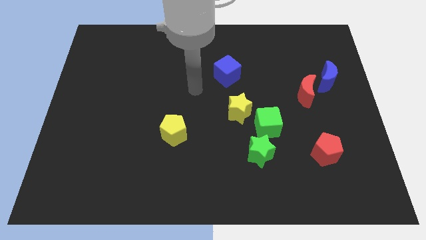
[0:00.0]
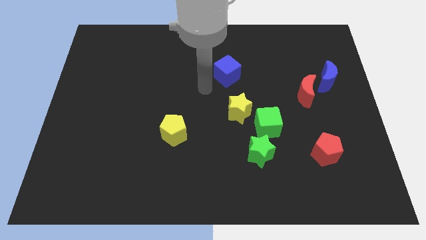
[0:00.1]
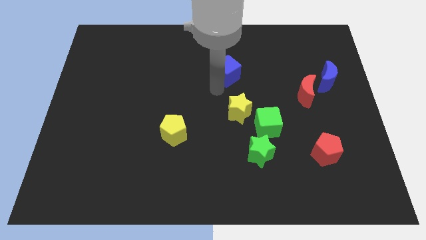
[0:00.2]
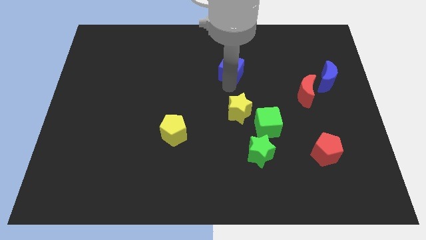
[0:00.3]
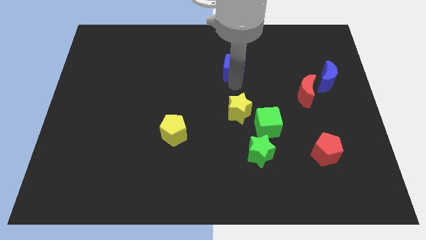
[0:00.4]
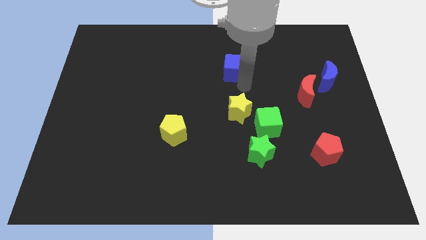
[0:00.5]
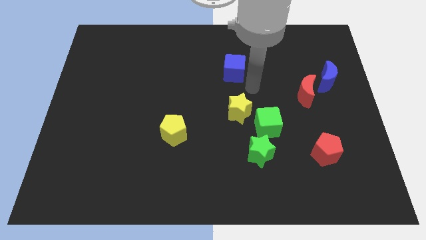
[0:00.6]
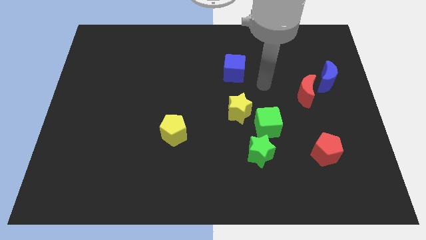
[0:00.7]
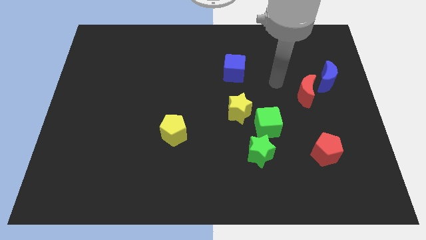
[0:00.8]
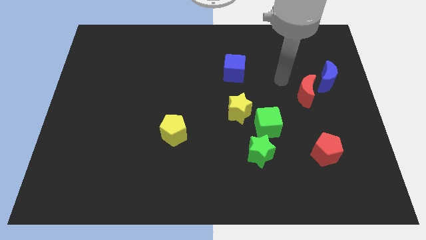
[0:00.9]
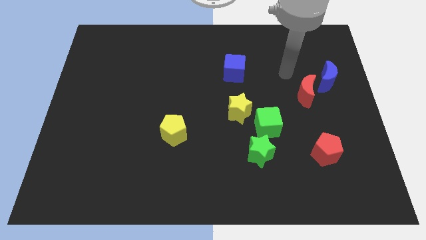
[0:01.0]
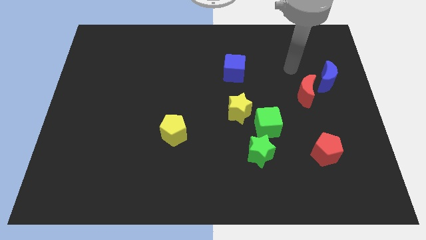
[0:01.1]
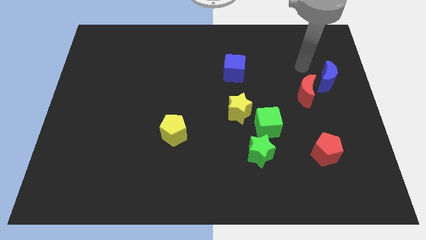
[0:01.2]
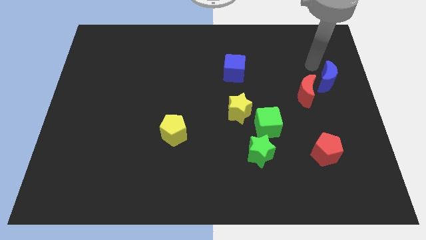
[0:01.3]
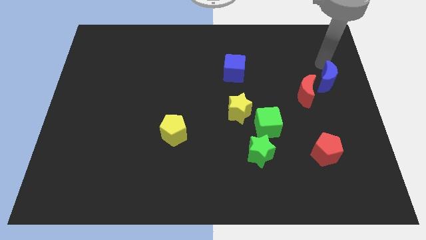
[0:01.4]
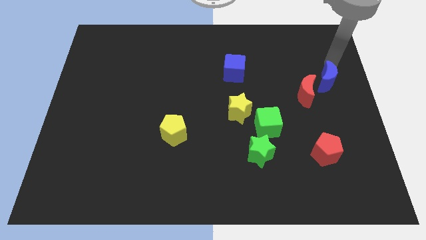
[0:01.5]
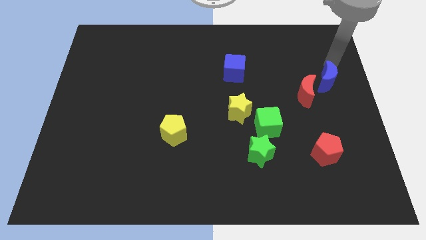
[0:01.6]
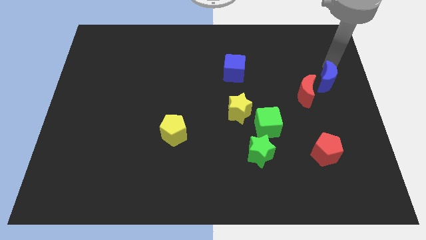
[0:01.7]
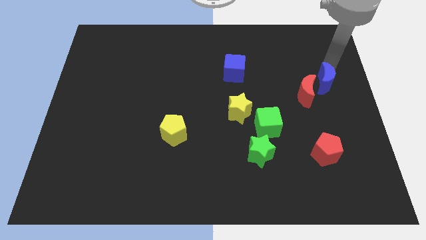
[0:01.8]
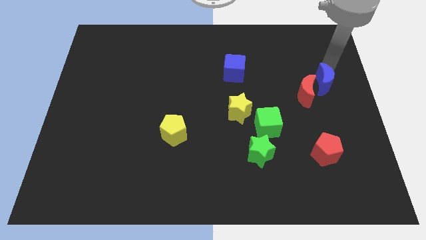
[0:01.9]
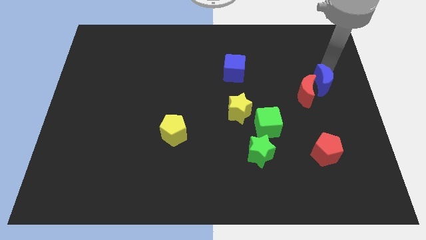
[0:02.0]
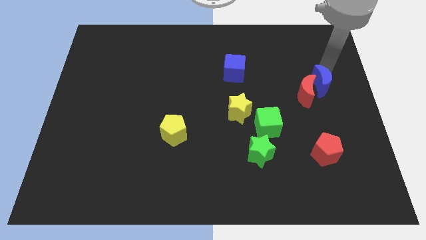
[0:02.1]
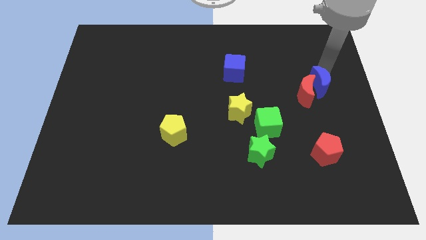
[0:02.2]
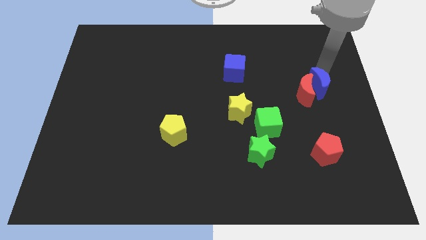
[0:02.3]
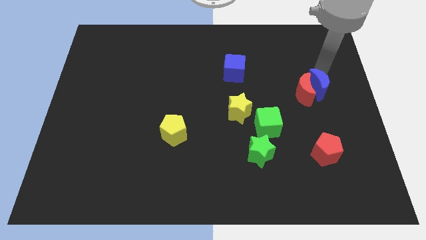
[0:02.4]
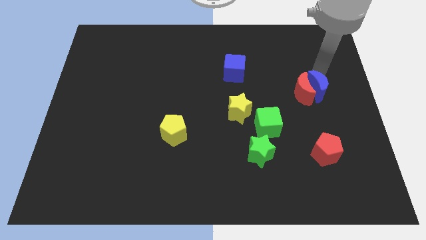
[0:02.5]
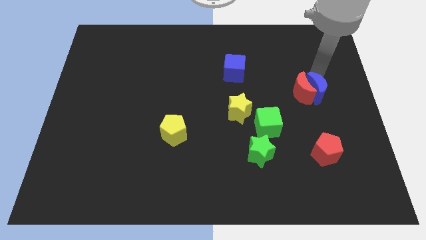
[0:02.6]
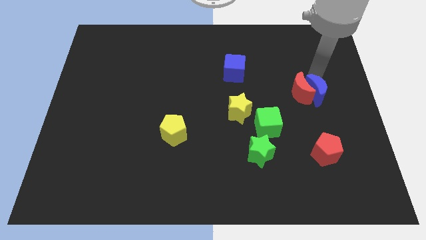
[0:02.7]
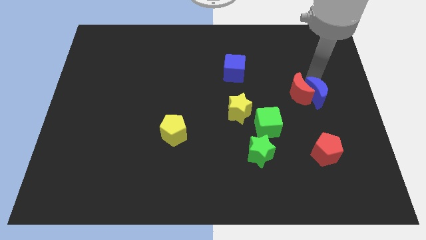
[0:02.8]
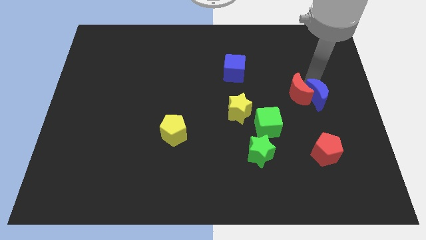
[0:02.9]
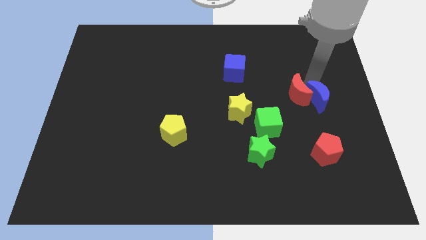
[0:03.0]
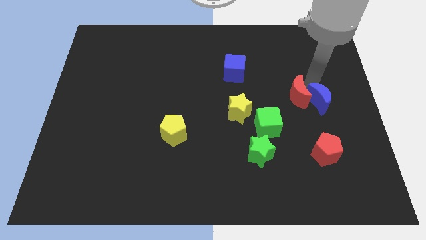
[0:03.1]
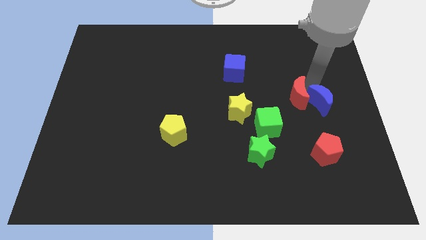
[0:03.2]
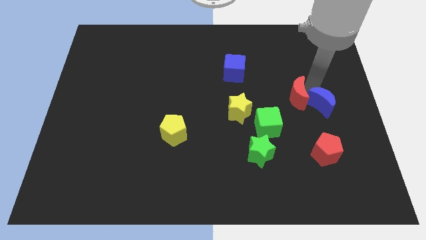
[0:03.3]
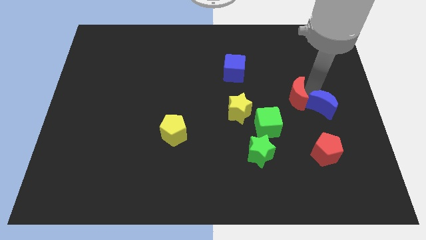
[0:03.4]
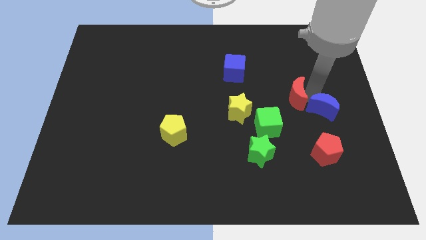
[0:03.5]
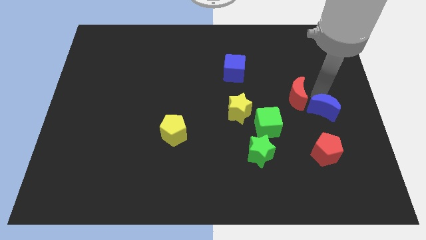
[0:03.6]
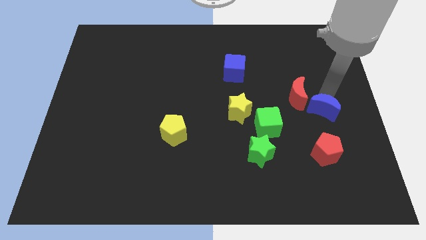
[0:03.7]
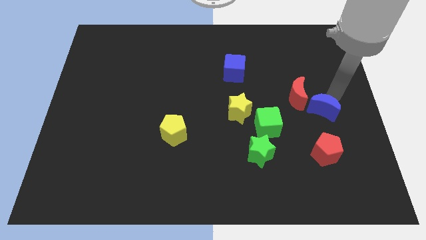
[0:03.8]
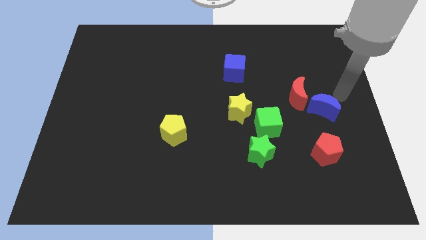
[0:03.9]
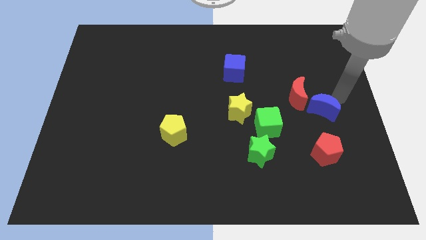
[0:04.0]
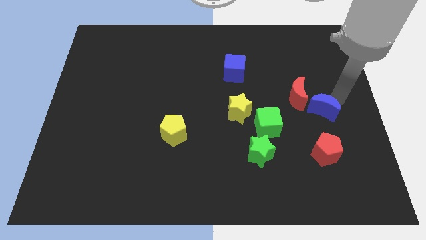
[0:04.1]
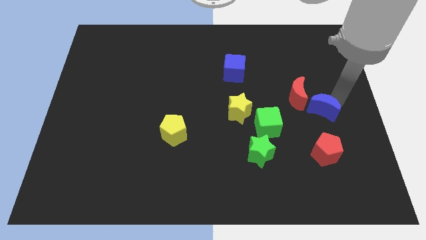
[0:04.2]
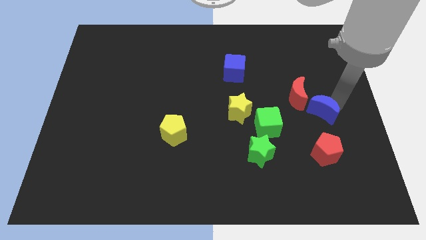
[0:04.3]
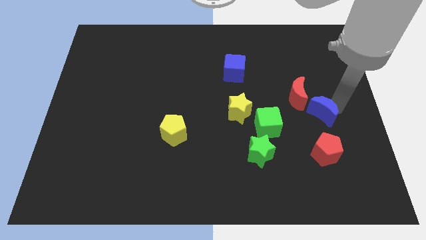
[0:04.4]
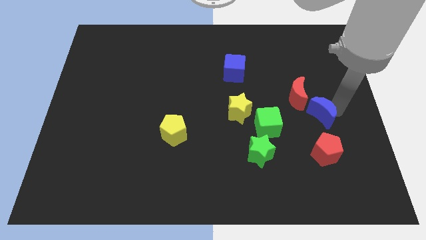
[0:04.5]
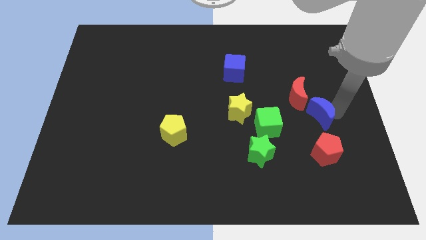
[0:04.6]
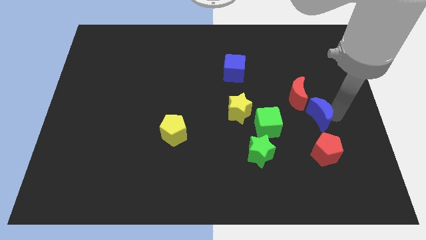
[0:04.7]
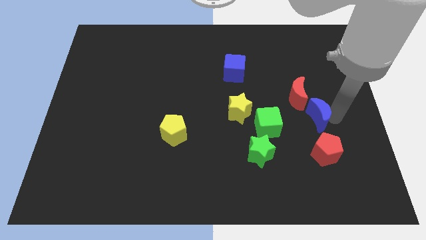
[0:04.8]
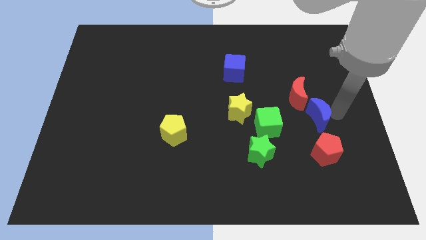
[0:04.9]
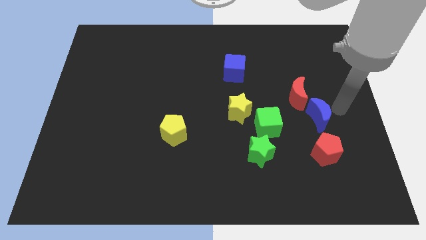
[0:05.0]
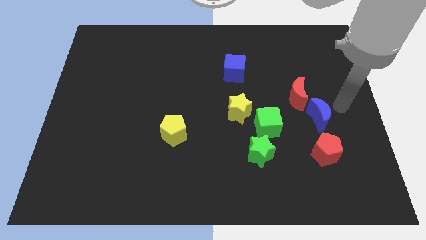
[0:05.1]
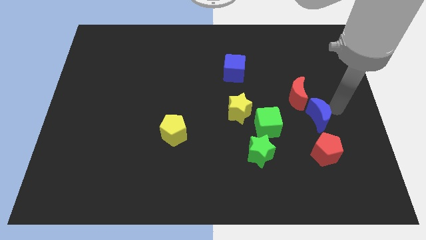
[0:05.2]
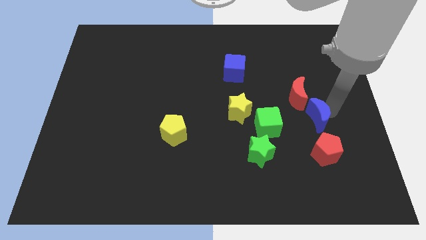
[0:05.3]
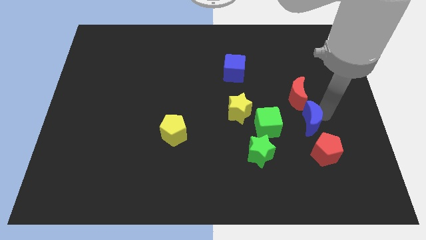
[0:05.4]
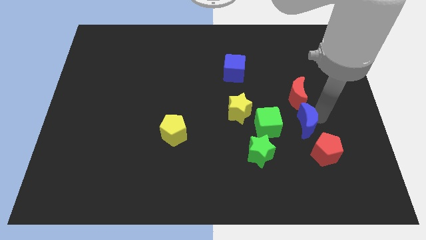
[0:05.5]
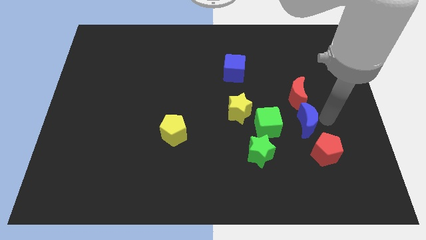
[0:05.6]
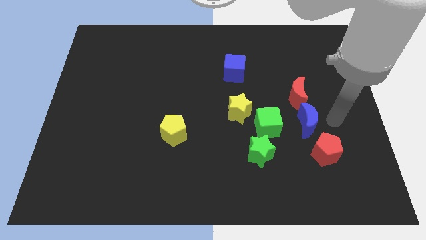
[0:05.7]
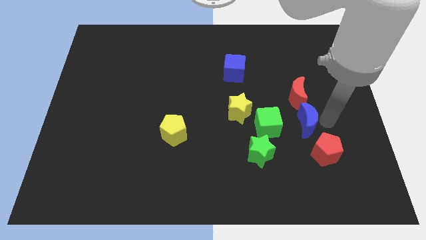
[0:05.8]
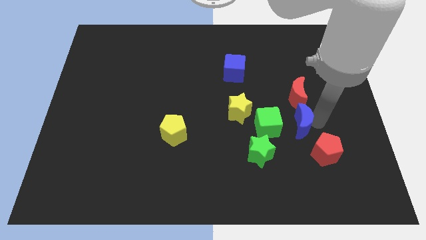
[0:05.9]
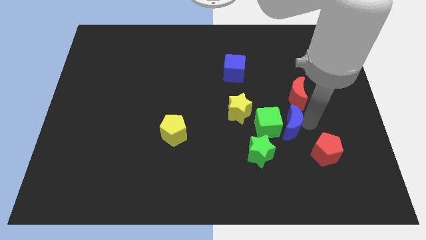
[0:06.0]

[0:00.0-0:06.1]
move the blue moon close to the green cube

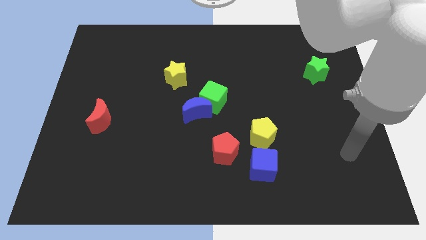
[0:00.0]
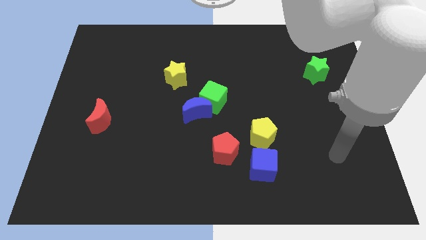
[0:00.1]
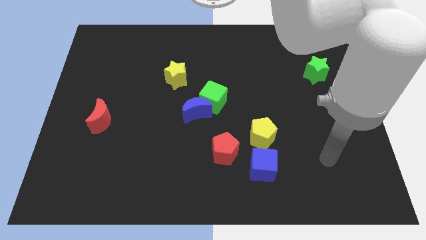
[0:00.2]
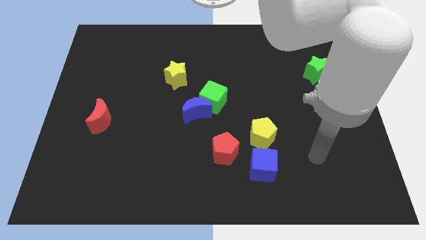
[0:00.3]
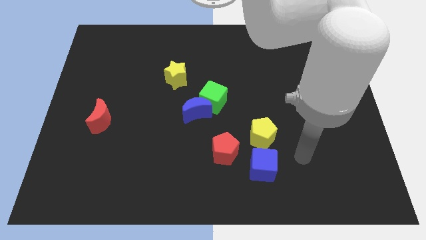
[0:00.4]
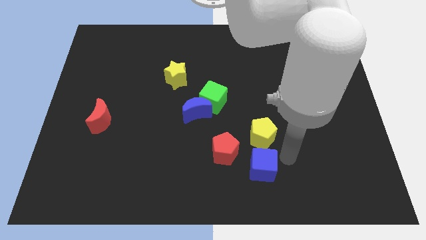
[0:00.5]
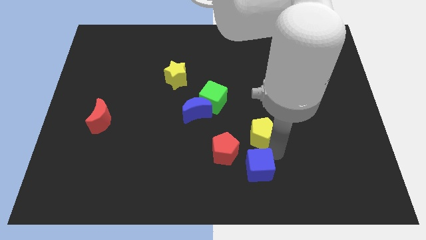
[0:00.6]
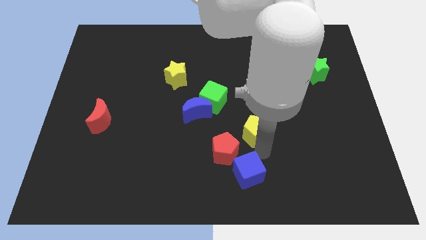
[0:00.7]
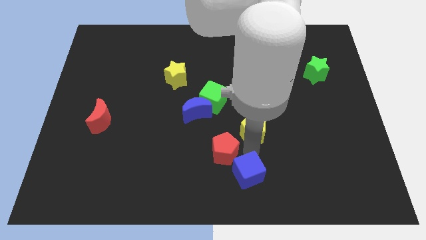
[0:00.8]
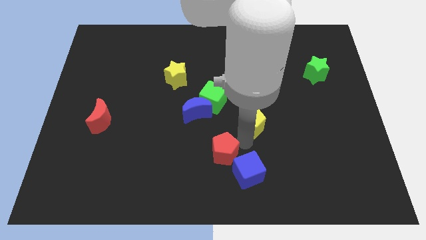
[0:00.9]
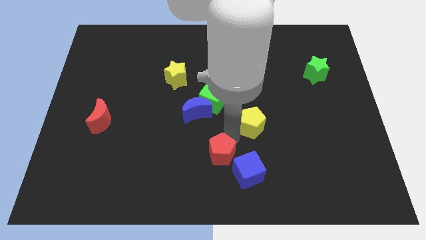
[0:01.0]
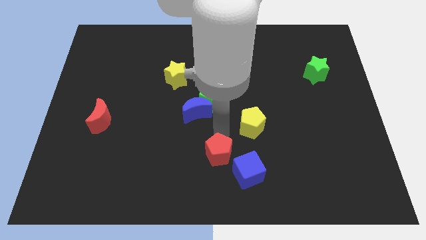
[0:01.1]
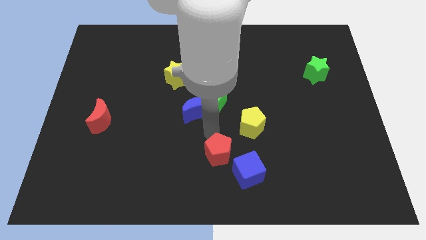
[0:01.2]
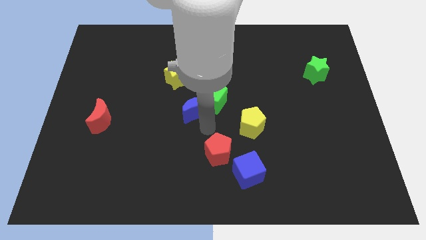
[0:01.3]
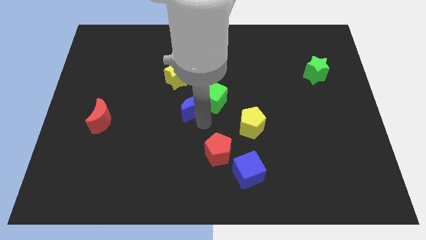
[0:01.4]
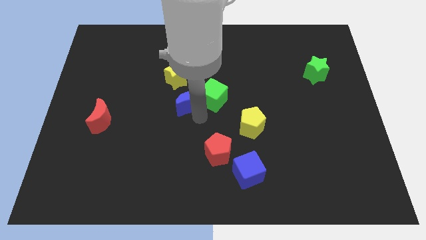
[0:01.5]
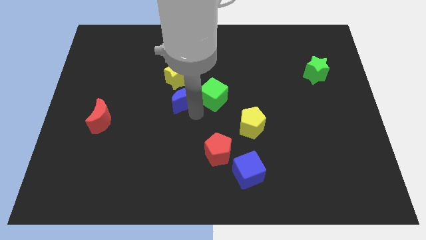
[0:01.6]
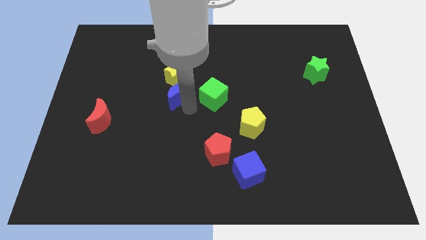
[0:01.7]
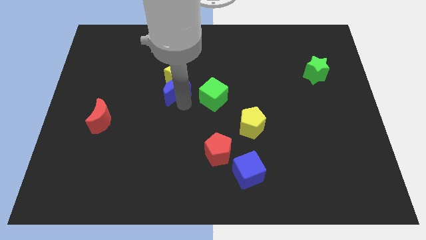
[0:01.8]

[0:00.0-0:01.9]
slide the blue moon towards the yellow star
